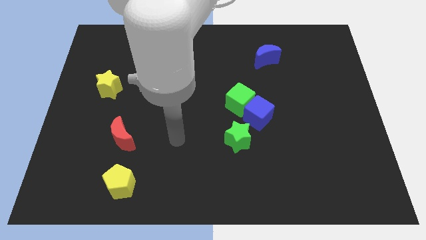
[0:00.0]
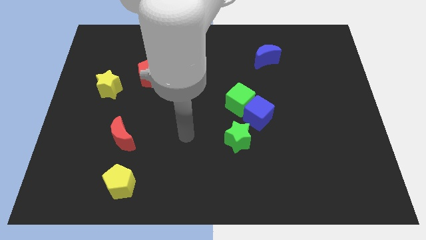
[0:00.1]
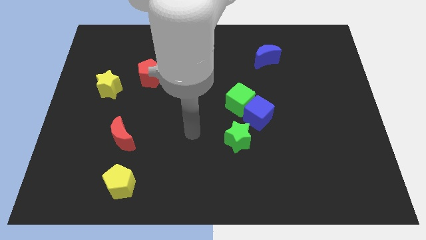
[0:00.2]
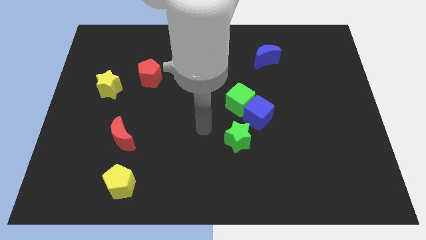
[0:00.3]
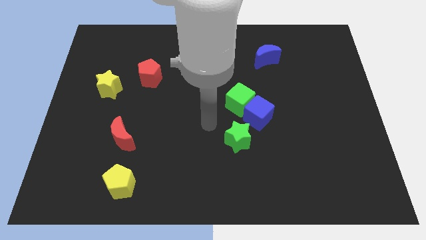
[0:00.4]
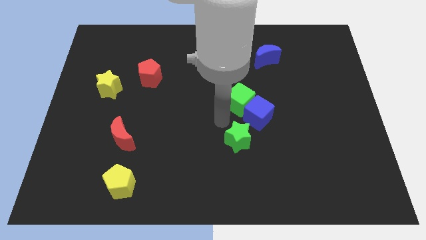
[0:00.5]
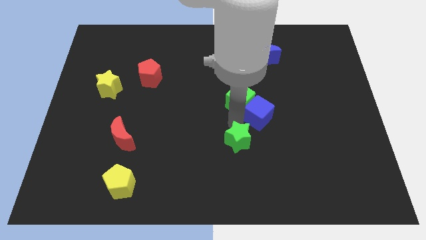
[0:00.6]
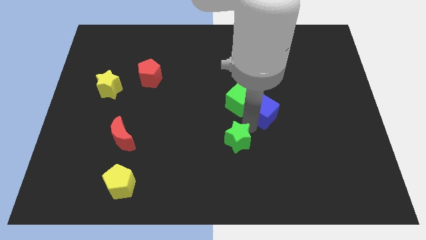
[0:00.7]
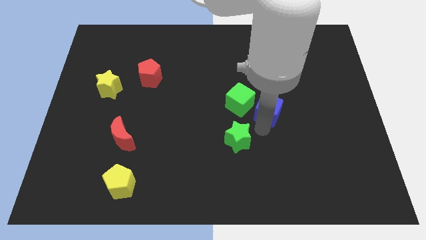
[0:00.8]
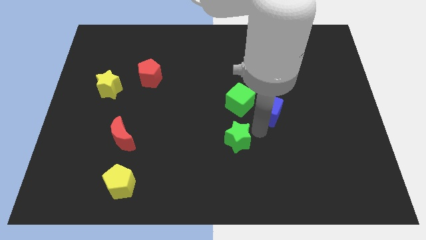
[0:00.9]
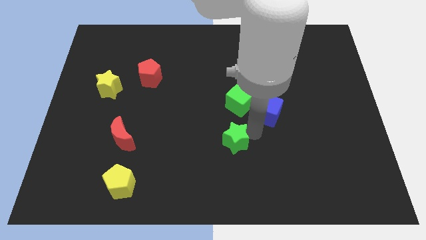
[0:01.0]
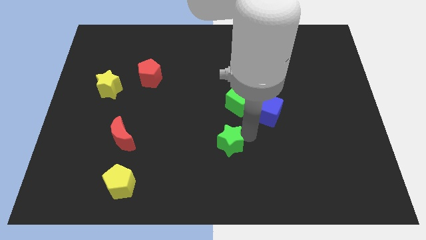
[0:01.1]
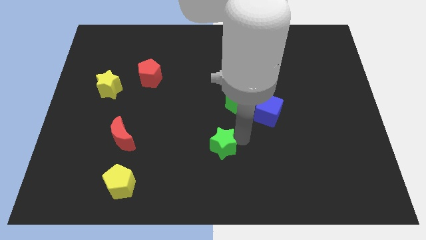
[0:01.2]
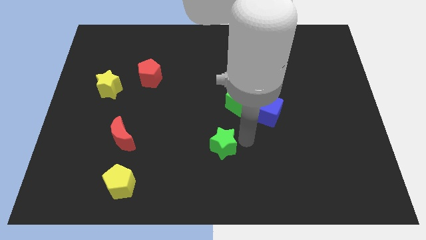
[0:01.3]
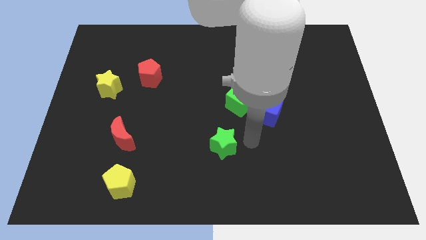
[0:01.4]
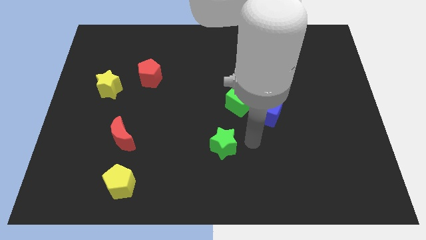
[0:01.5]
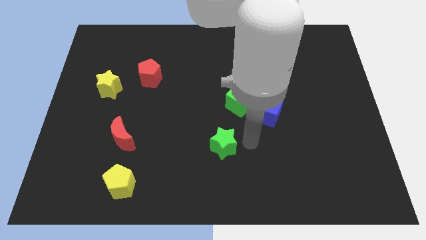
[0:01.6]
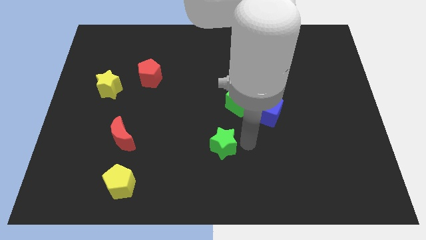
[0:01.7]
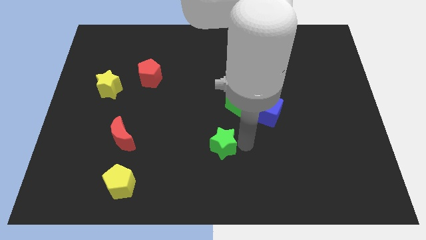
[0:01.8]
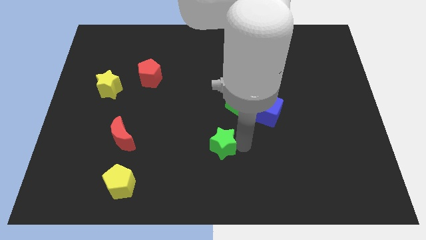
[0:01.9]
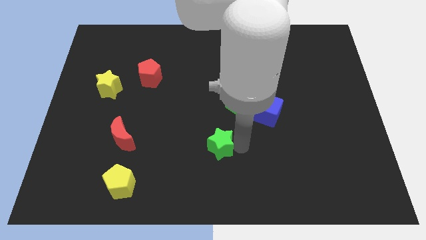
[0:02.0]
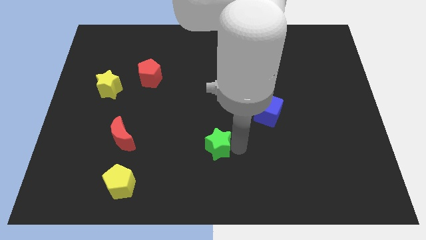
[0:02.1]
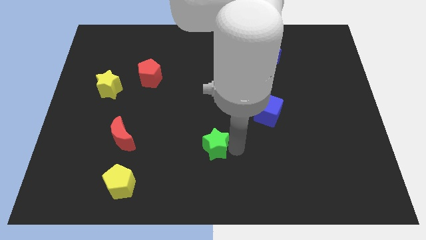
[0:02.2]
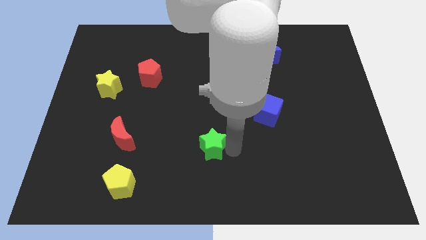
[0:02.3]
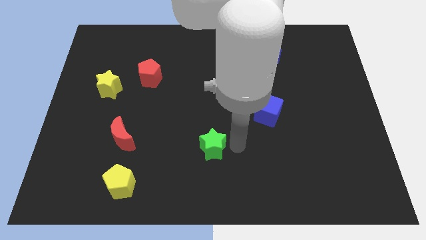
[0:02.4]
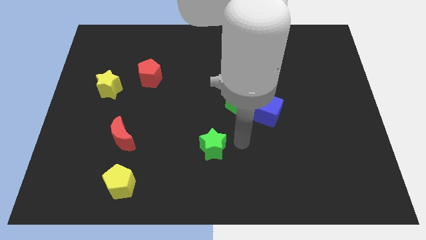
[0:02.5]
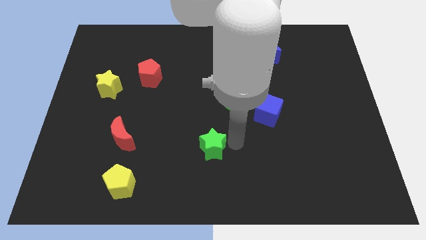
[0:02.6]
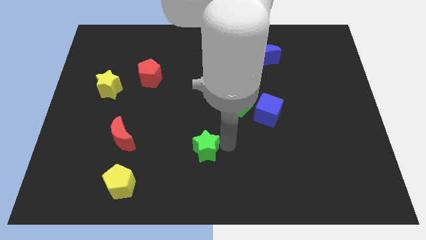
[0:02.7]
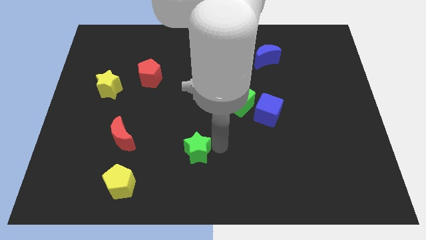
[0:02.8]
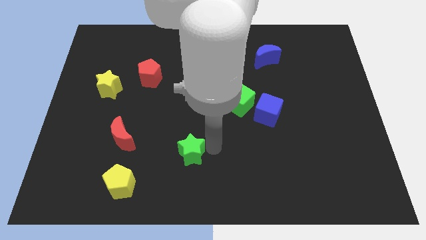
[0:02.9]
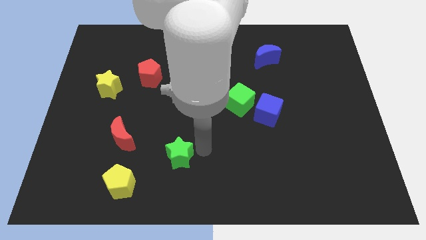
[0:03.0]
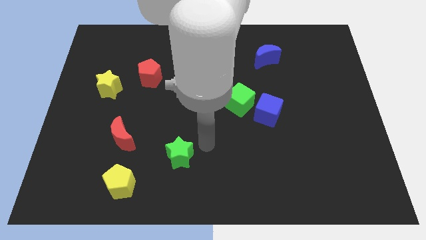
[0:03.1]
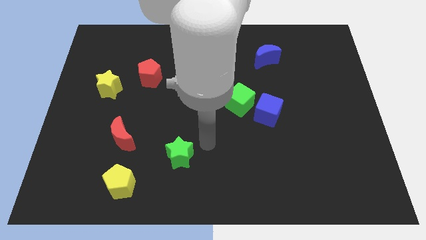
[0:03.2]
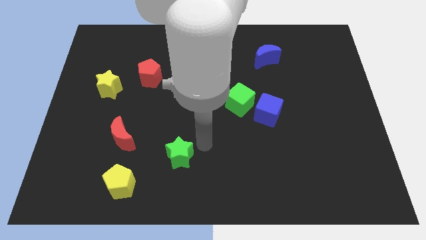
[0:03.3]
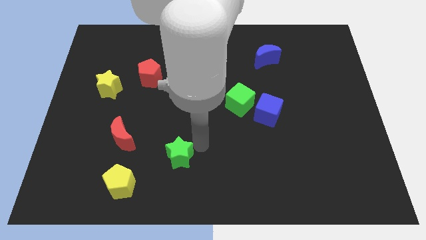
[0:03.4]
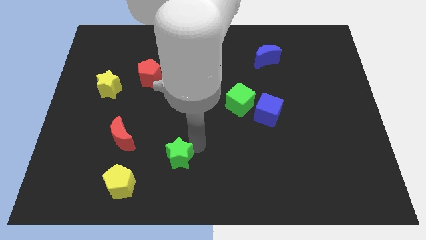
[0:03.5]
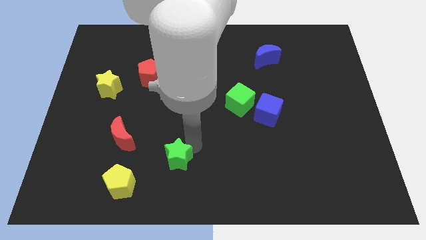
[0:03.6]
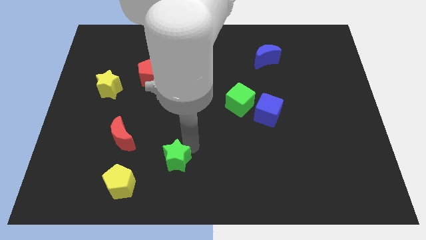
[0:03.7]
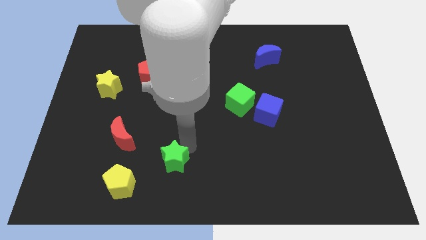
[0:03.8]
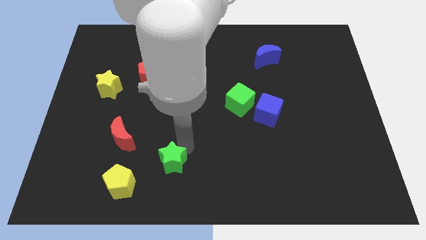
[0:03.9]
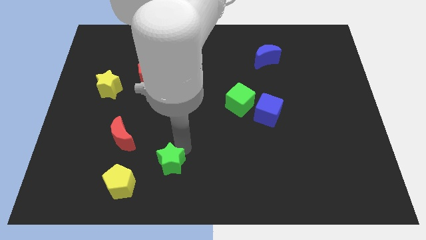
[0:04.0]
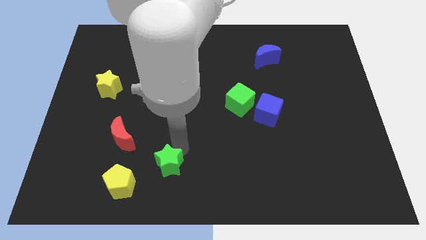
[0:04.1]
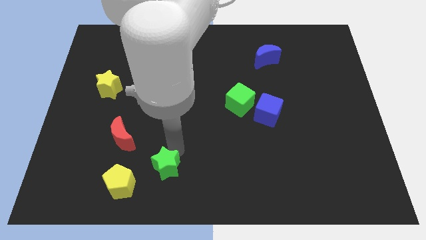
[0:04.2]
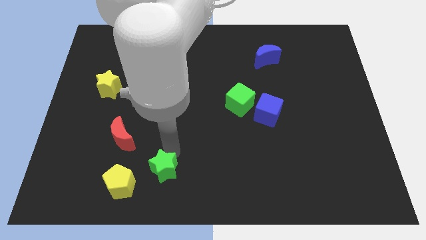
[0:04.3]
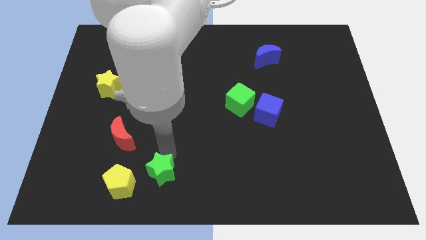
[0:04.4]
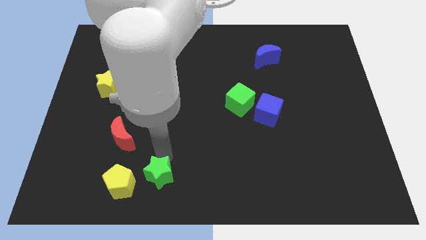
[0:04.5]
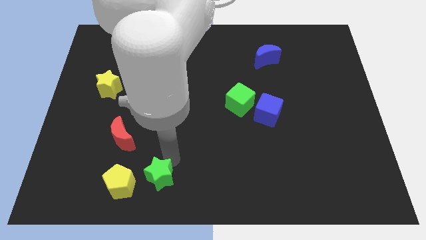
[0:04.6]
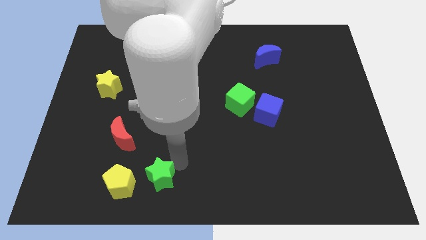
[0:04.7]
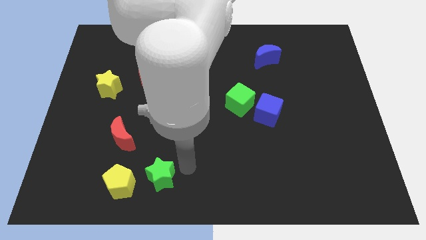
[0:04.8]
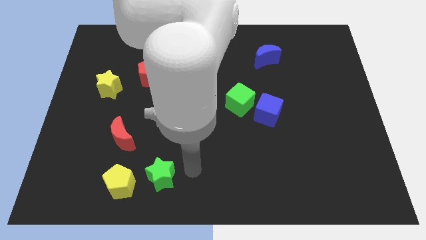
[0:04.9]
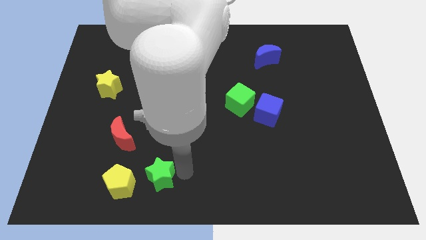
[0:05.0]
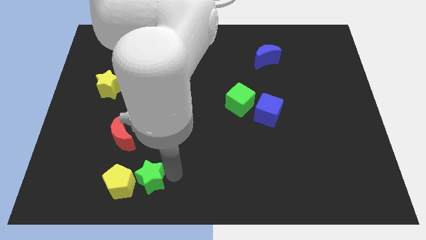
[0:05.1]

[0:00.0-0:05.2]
push the green star next to the yellow pentagon

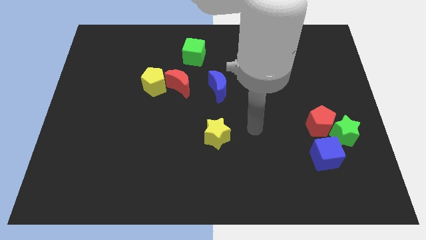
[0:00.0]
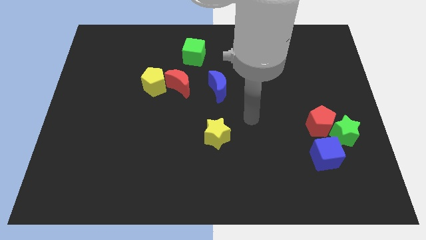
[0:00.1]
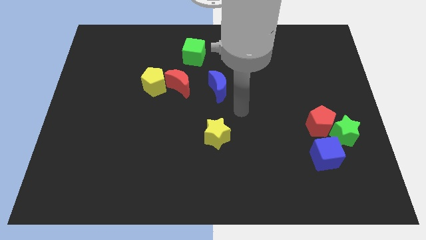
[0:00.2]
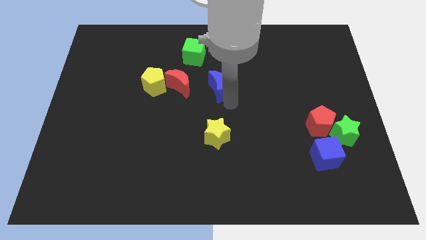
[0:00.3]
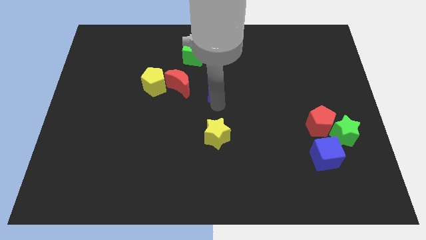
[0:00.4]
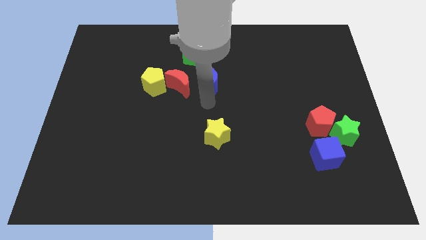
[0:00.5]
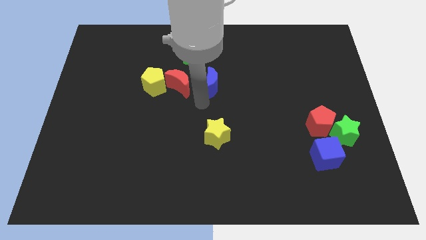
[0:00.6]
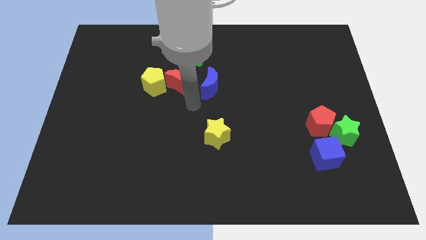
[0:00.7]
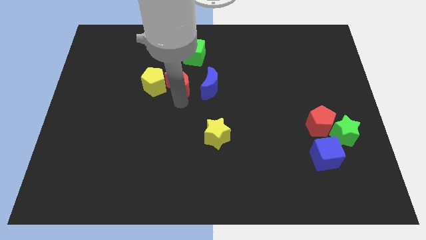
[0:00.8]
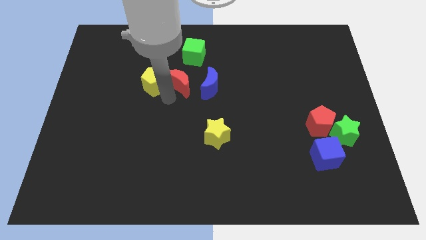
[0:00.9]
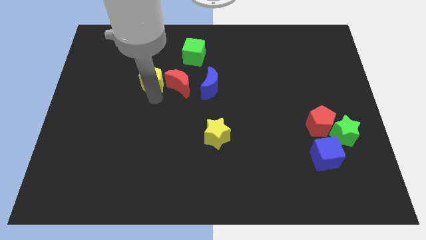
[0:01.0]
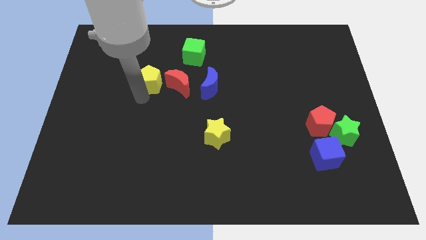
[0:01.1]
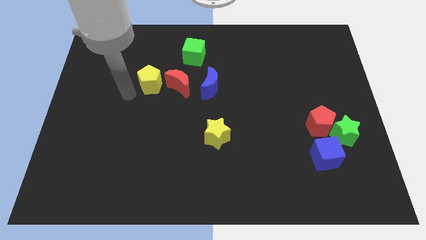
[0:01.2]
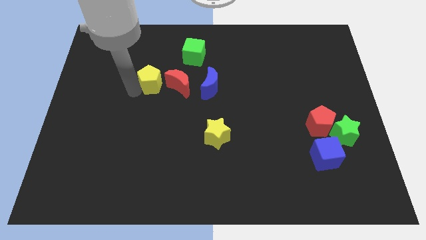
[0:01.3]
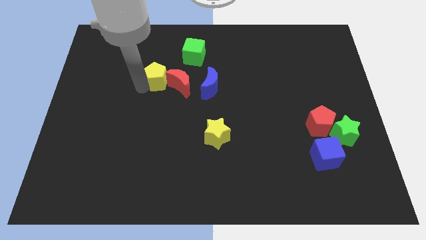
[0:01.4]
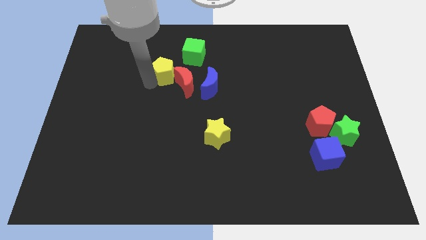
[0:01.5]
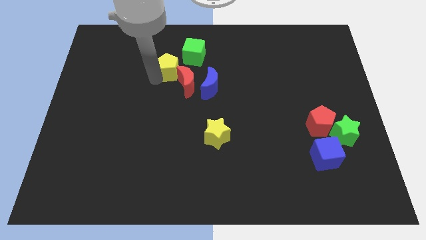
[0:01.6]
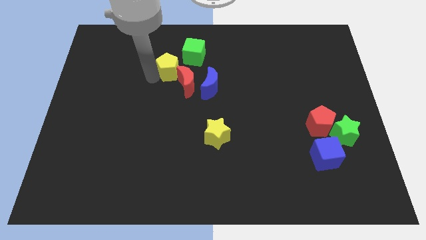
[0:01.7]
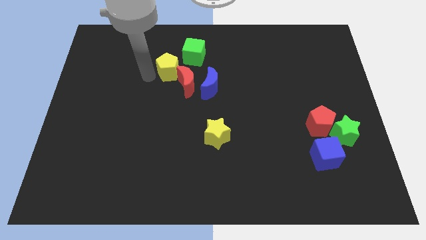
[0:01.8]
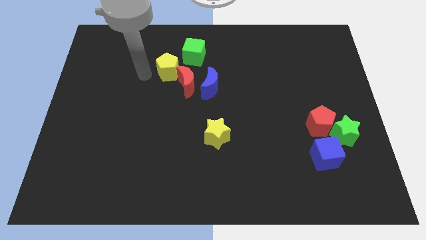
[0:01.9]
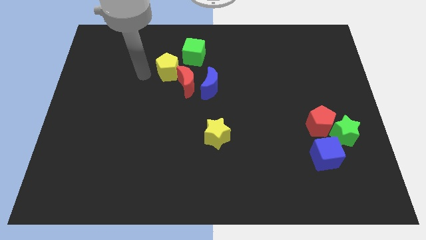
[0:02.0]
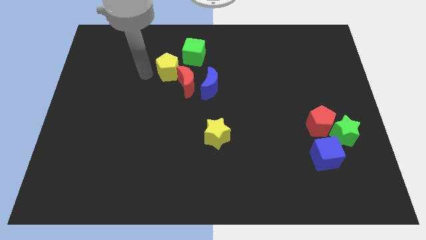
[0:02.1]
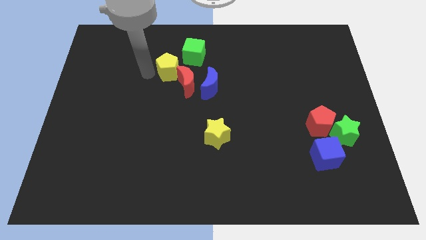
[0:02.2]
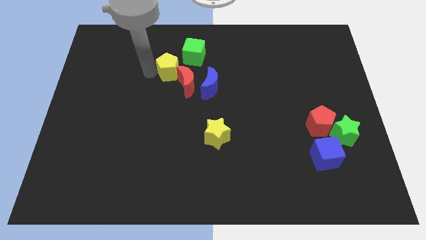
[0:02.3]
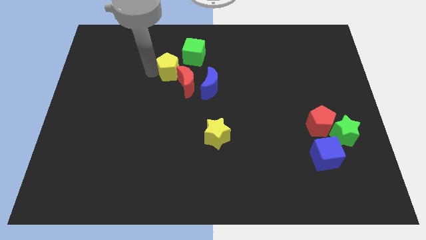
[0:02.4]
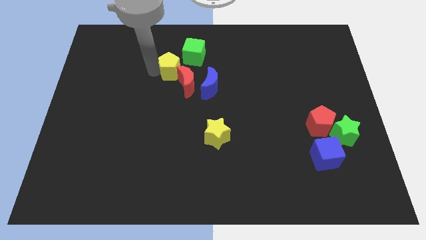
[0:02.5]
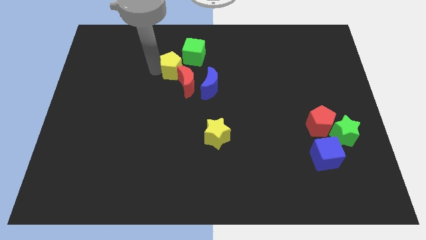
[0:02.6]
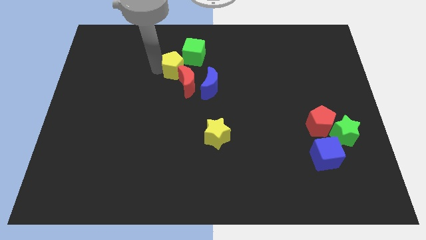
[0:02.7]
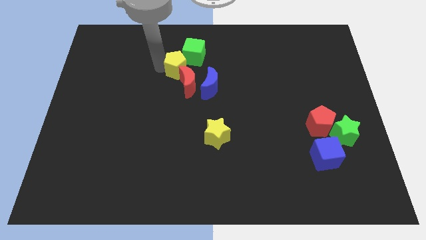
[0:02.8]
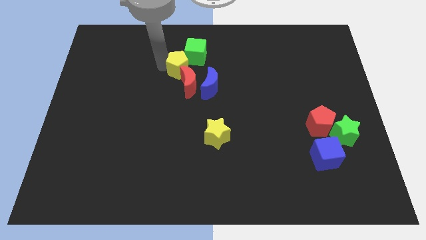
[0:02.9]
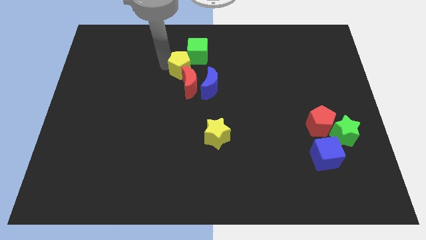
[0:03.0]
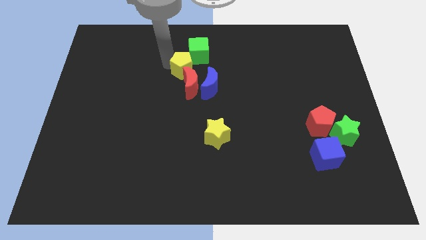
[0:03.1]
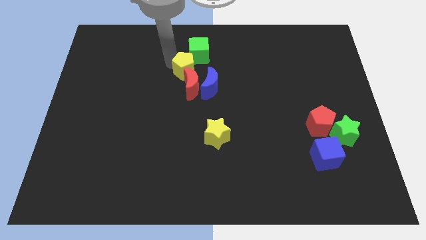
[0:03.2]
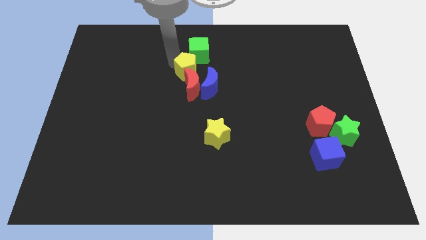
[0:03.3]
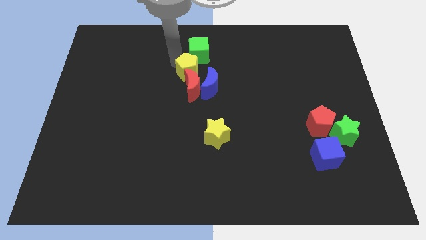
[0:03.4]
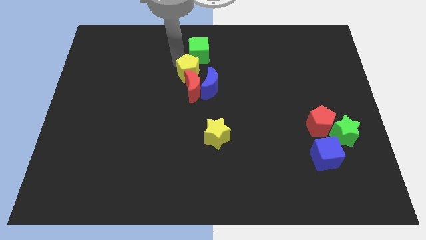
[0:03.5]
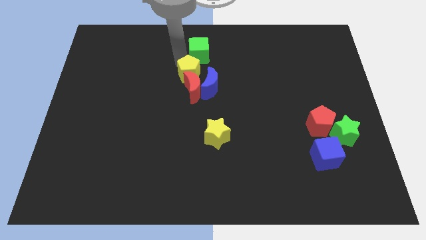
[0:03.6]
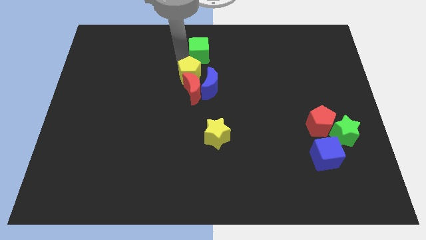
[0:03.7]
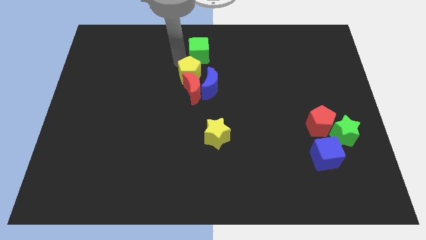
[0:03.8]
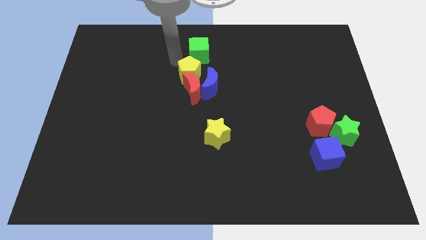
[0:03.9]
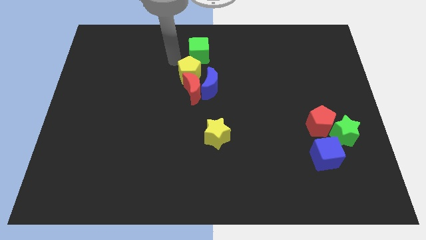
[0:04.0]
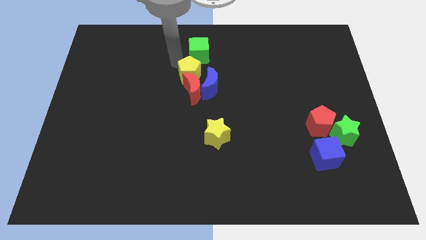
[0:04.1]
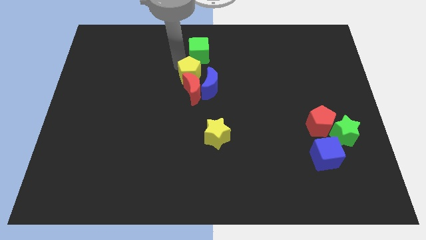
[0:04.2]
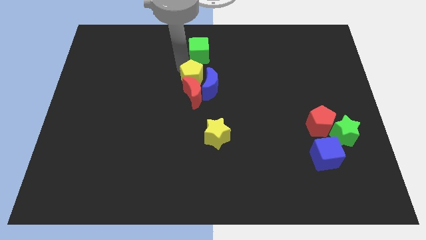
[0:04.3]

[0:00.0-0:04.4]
move the yellow pentagon to the blue moon
